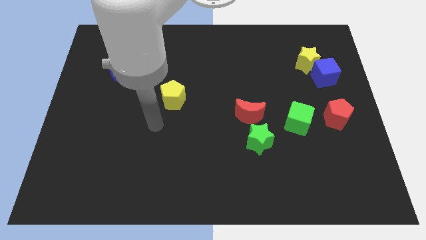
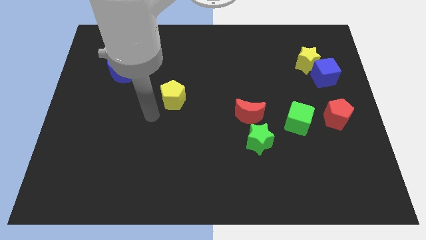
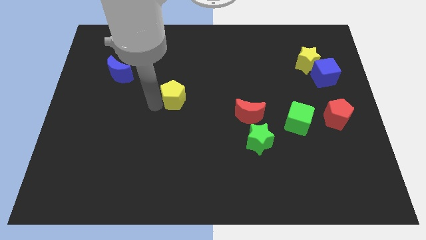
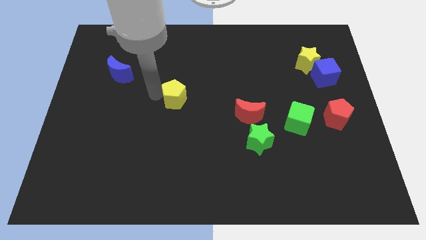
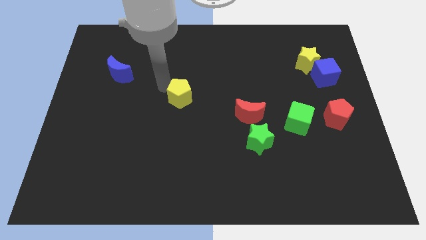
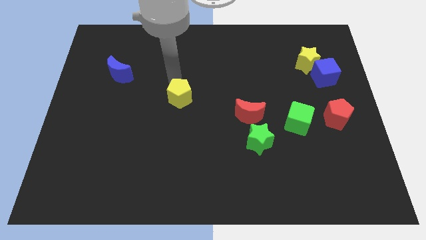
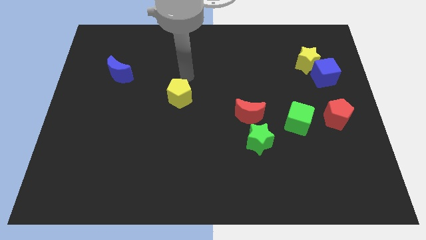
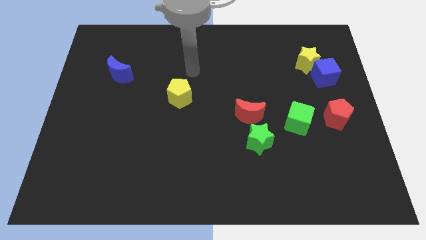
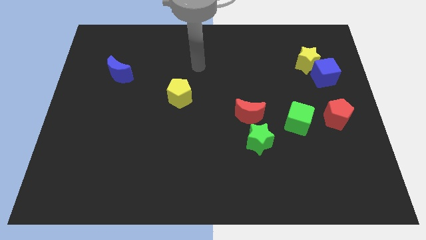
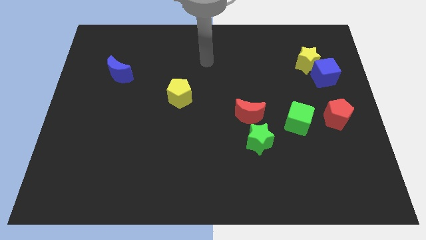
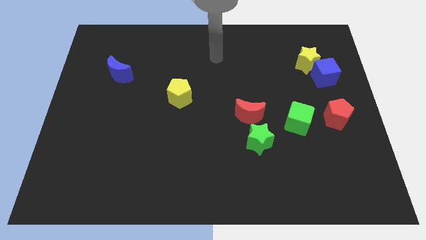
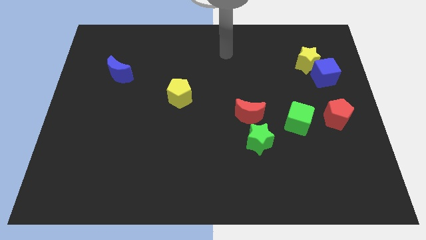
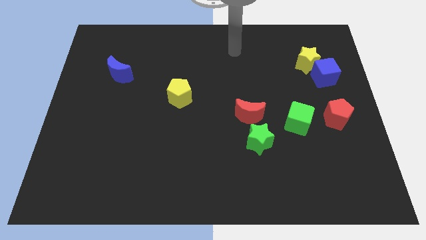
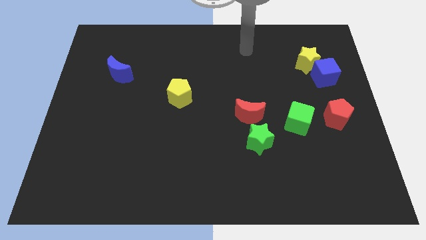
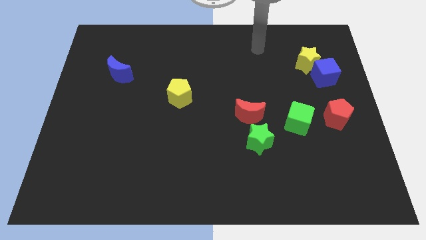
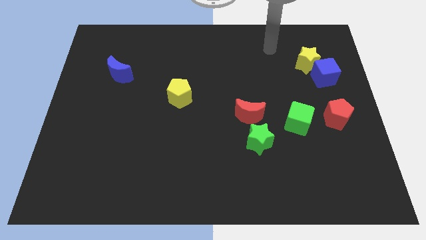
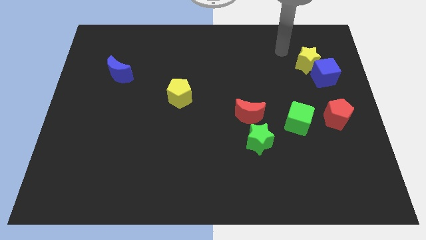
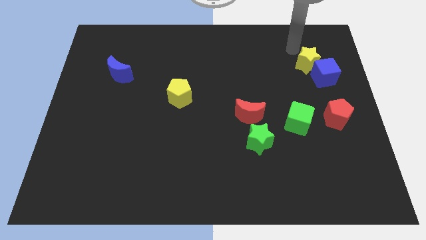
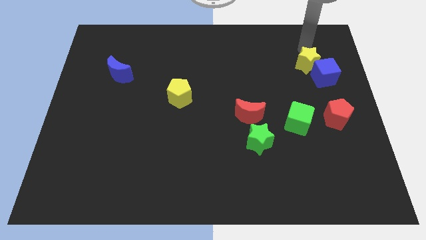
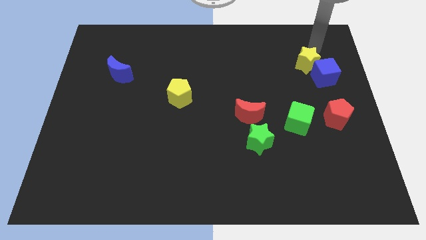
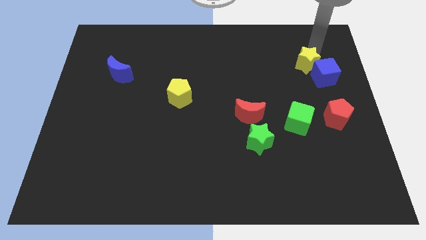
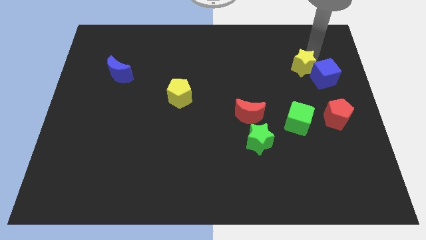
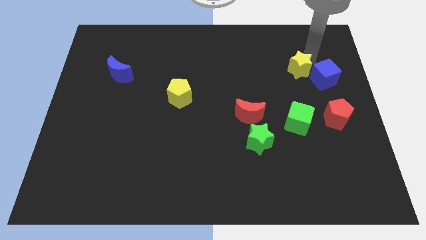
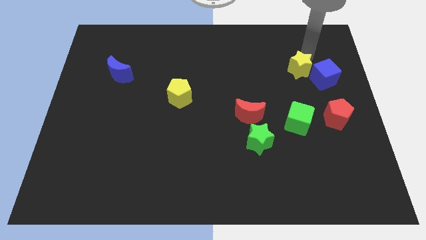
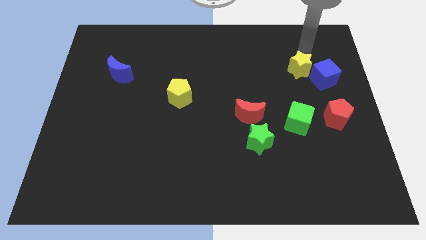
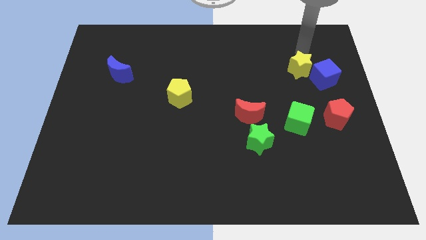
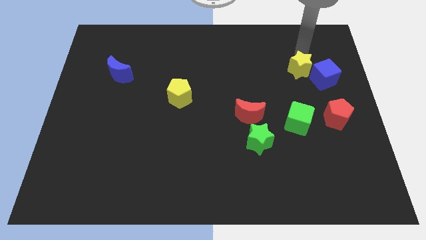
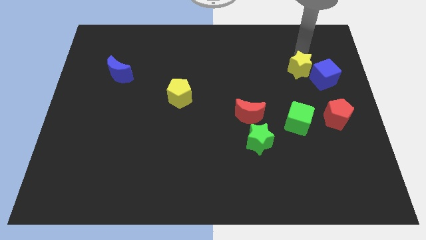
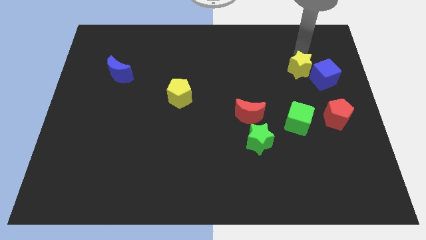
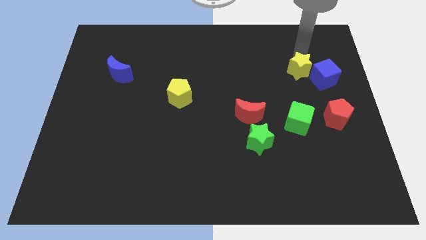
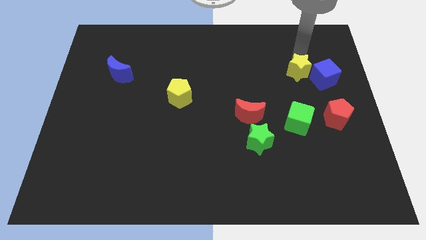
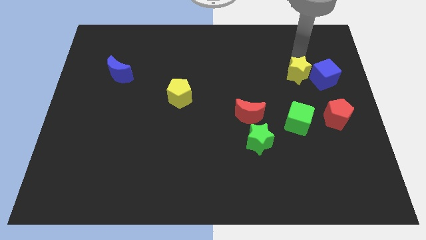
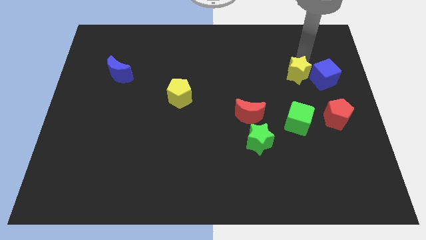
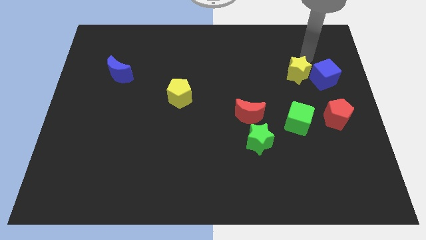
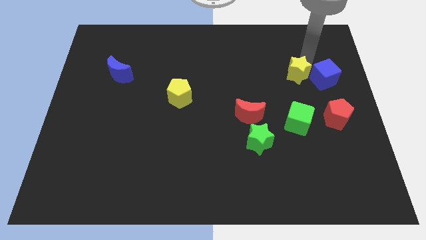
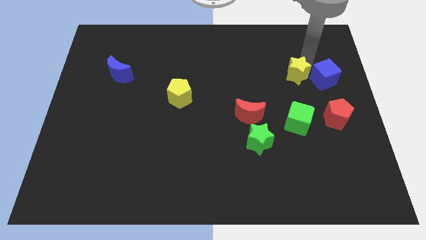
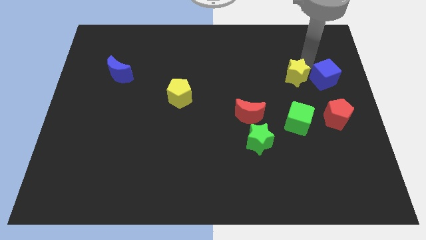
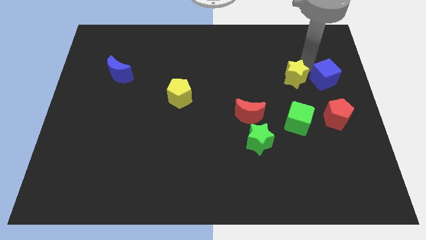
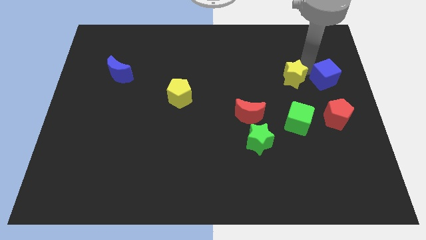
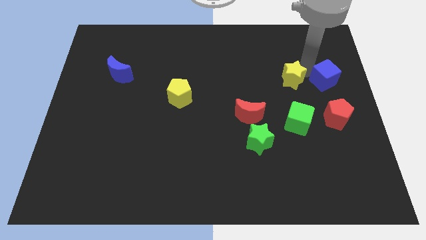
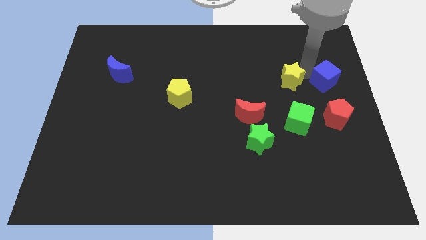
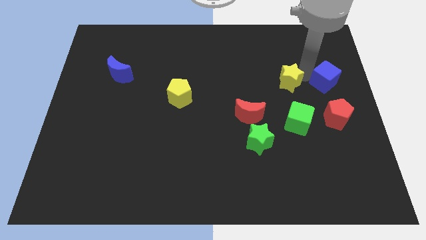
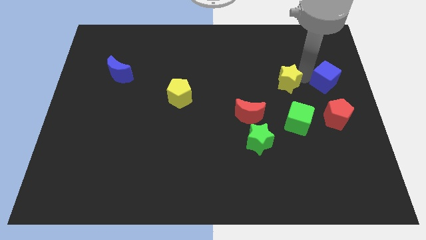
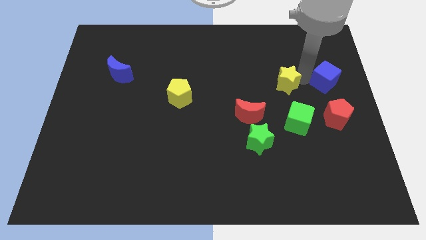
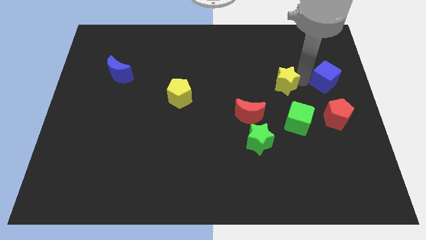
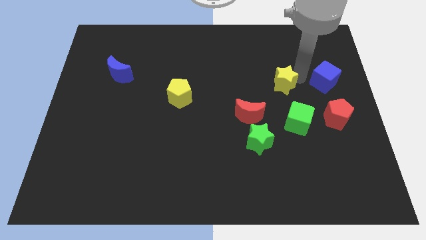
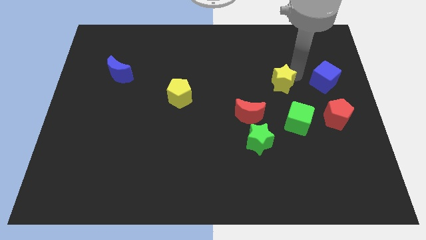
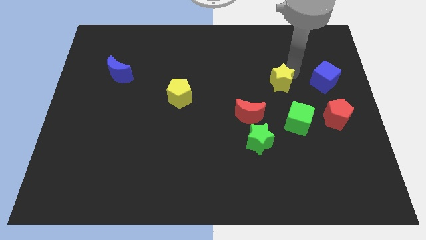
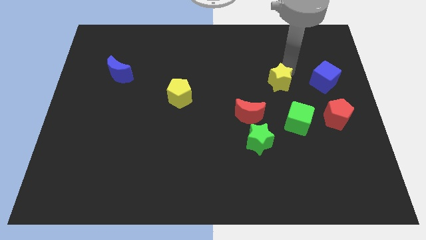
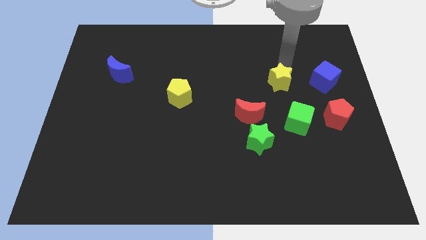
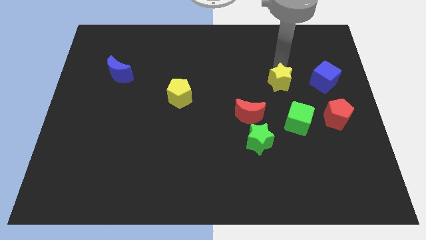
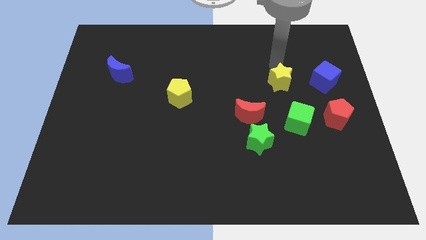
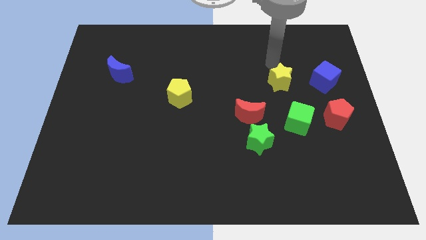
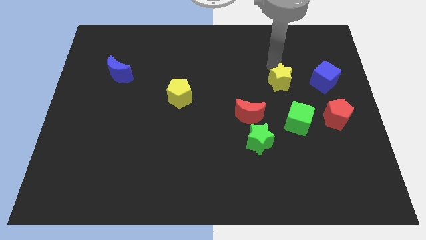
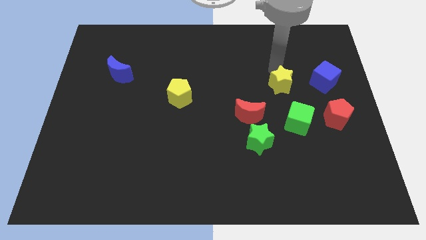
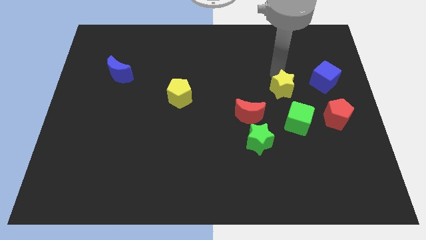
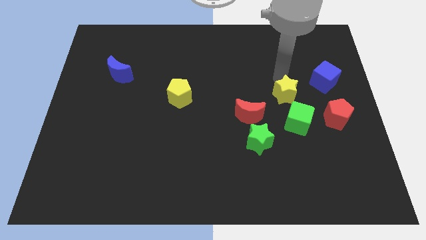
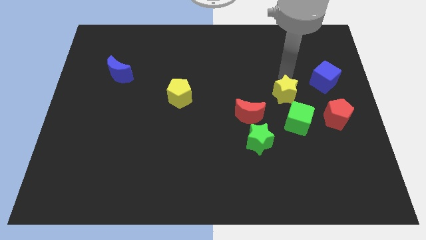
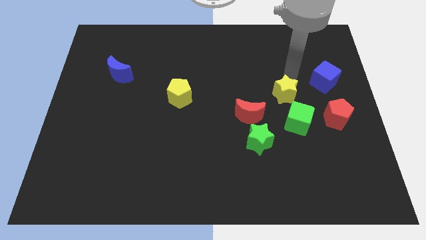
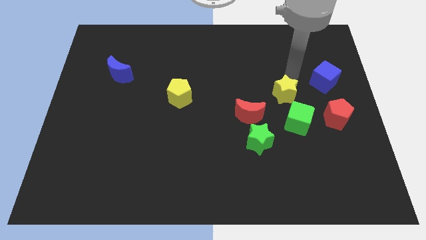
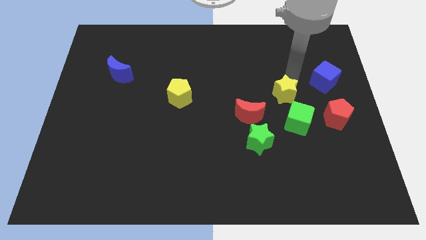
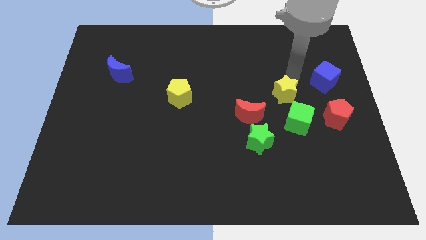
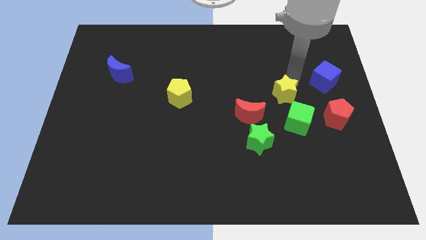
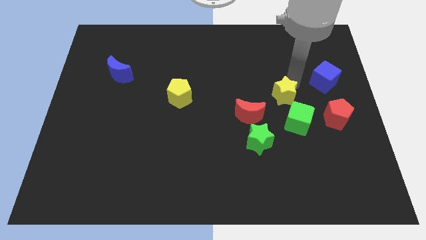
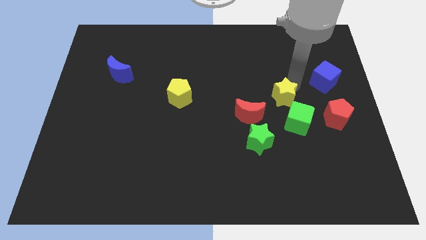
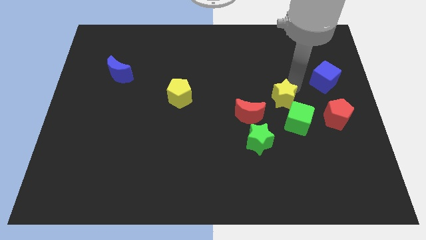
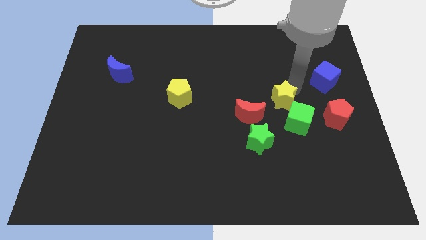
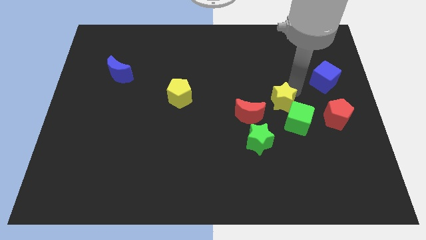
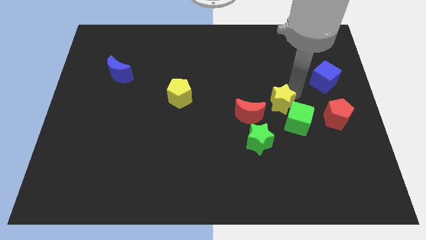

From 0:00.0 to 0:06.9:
push the yellow star to the top right side of the green star

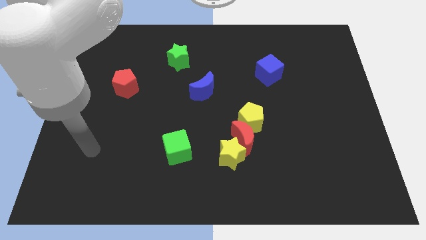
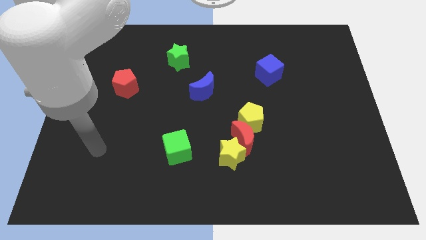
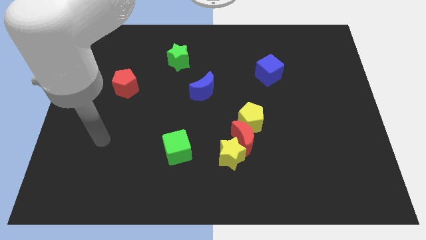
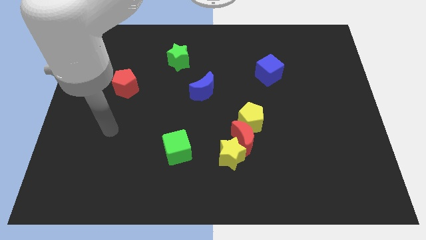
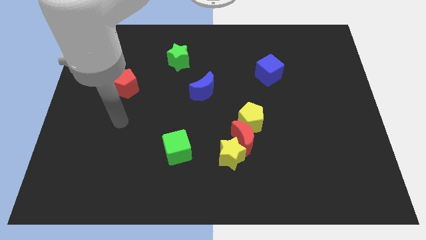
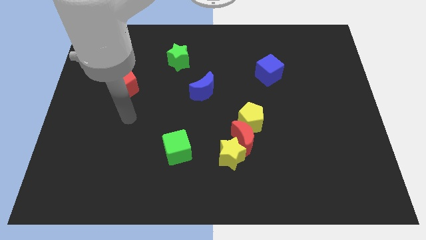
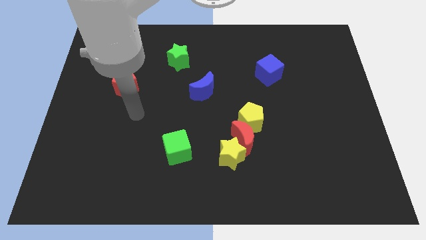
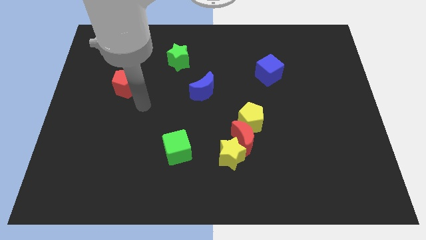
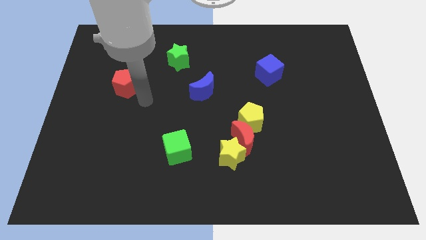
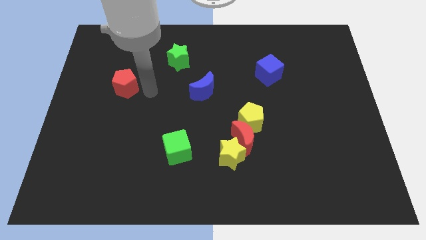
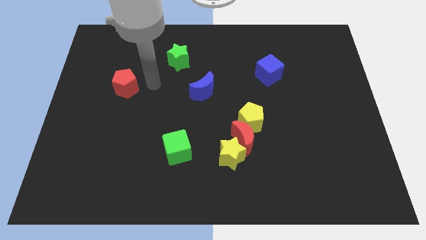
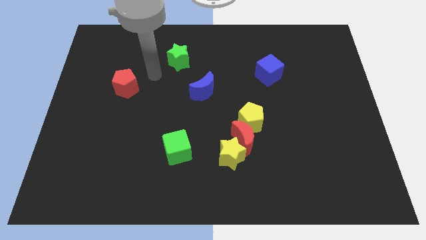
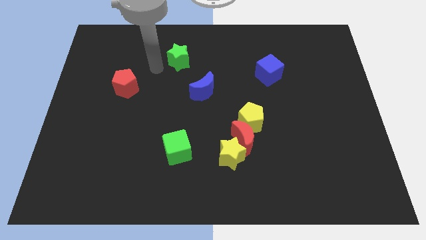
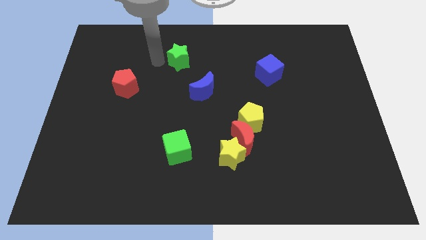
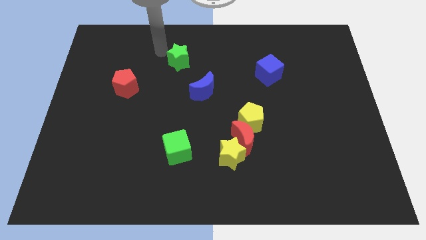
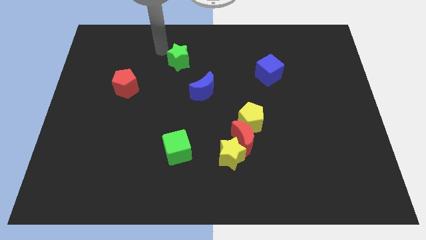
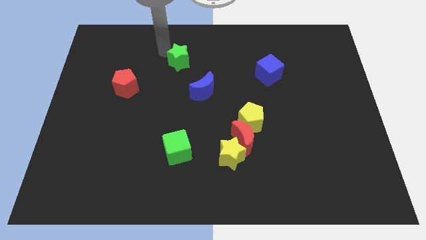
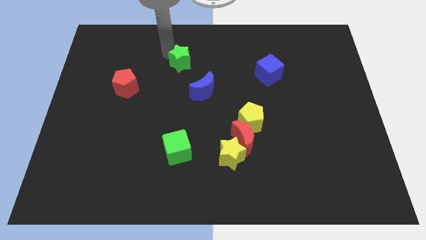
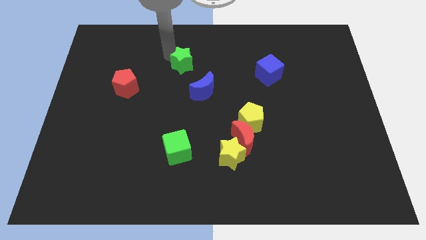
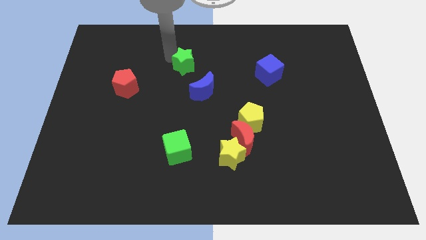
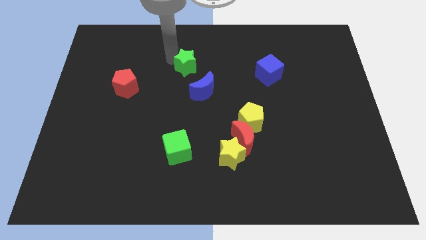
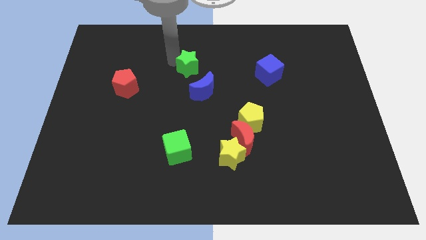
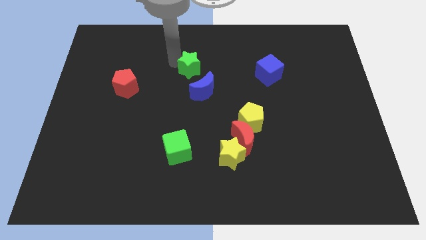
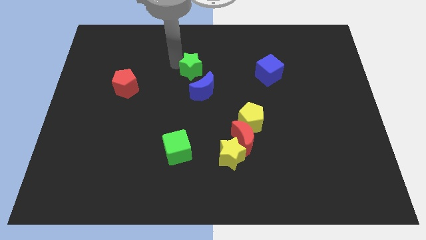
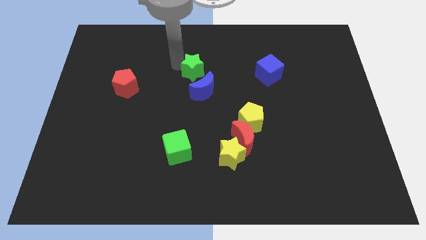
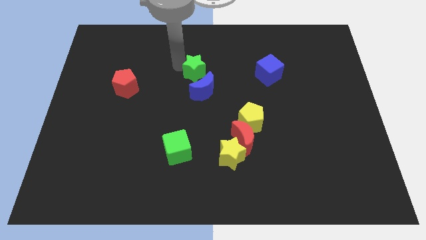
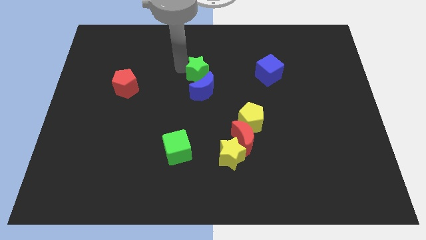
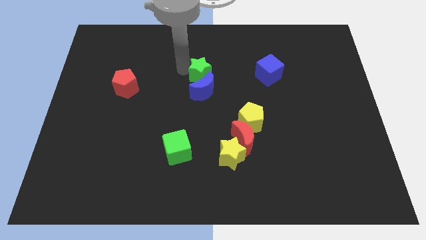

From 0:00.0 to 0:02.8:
slide the green star to the top right of the blue moon
